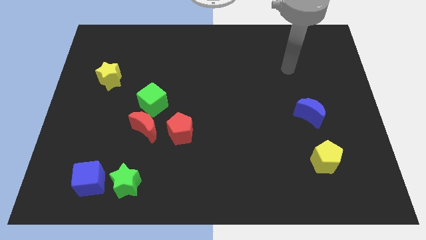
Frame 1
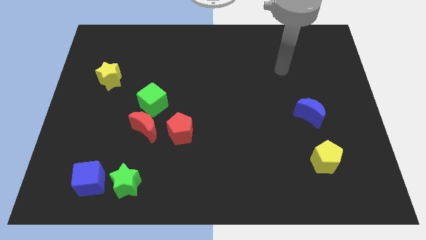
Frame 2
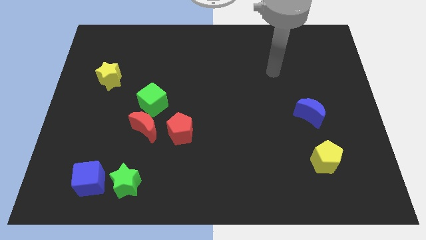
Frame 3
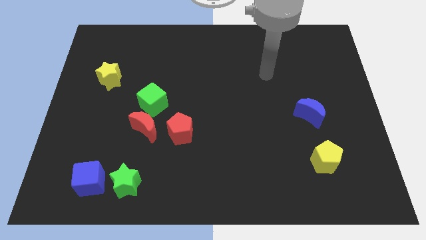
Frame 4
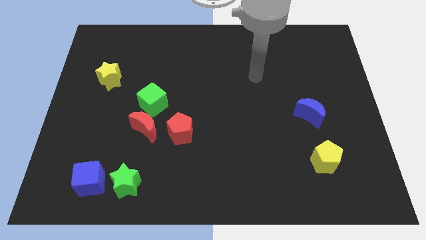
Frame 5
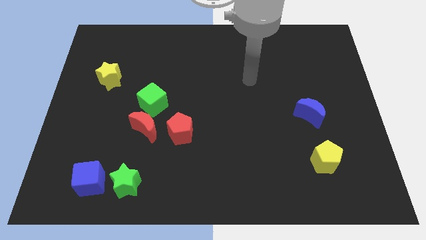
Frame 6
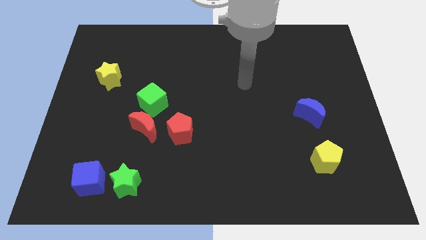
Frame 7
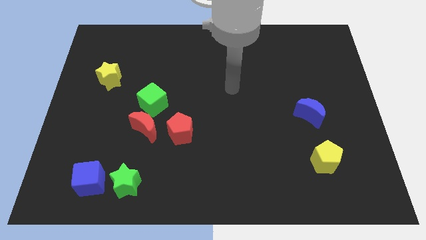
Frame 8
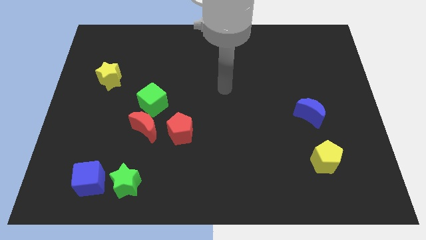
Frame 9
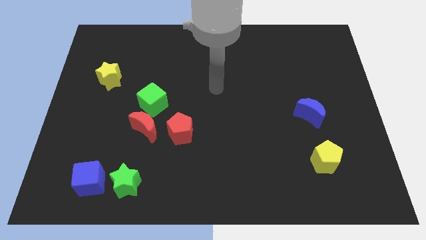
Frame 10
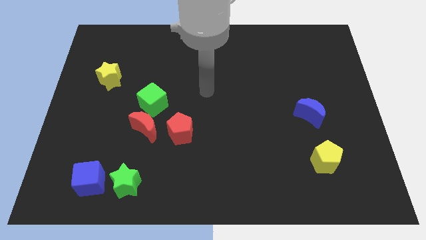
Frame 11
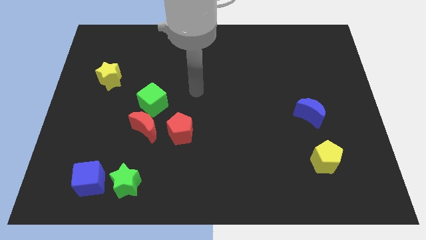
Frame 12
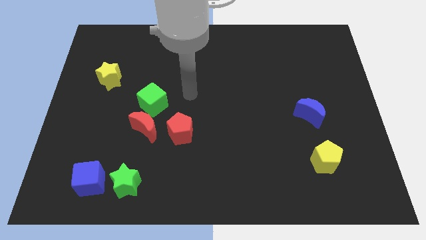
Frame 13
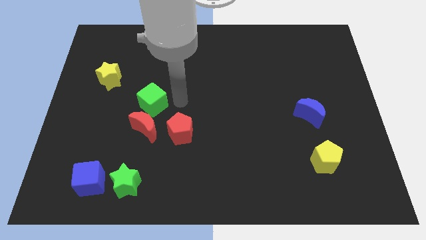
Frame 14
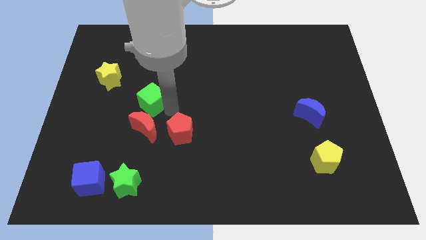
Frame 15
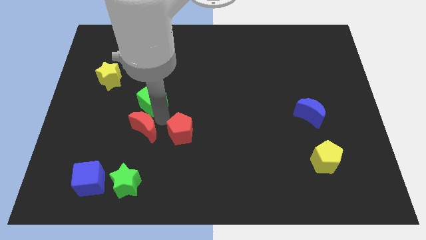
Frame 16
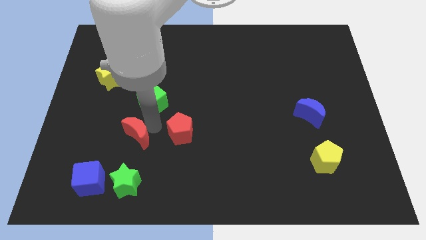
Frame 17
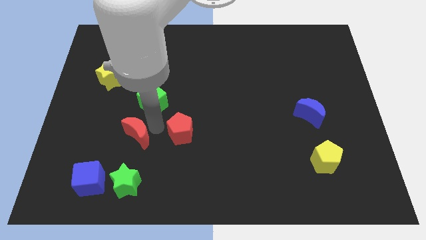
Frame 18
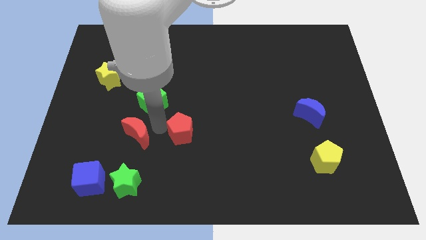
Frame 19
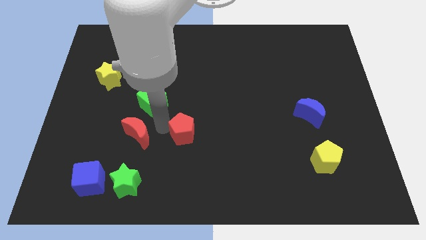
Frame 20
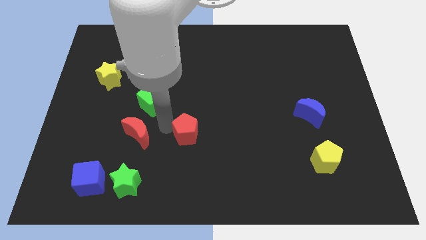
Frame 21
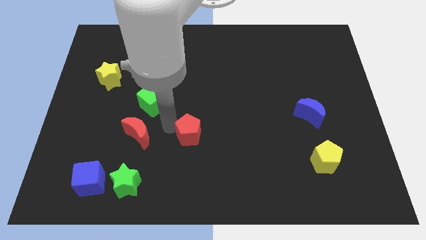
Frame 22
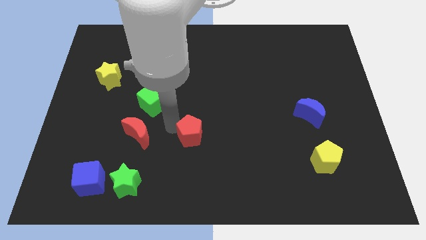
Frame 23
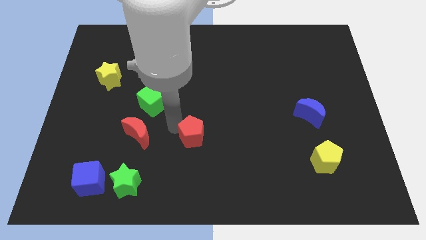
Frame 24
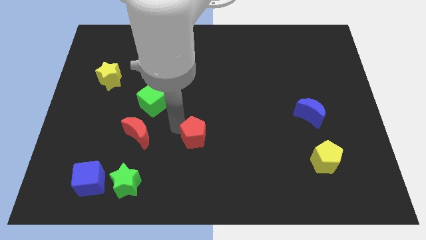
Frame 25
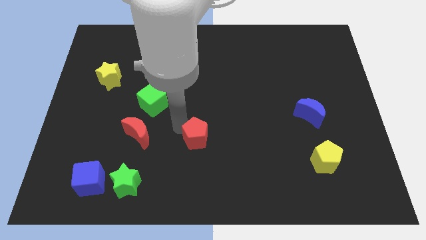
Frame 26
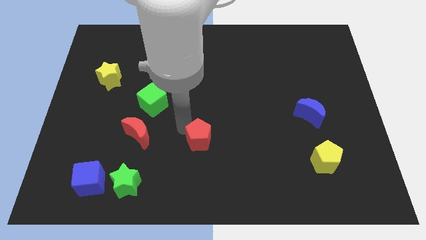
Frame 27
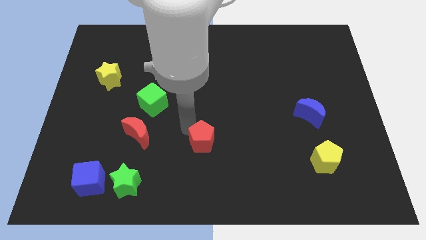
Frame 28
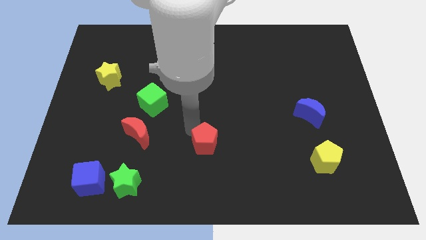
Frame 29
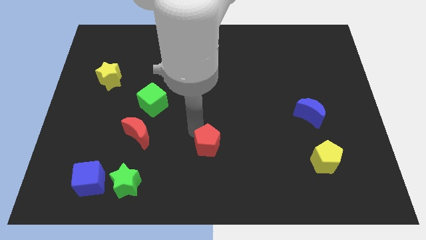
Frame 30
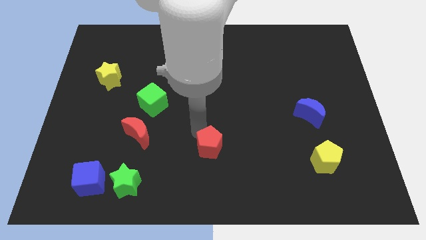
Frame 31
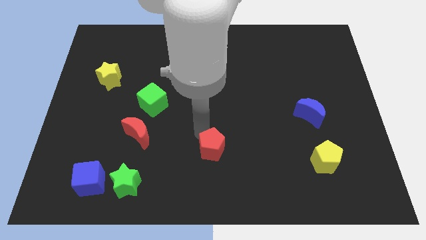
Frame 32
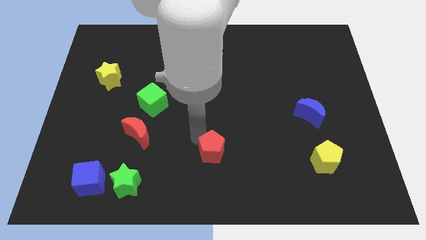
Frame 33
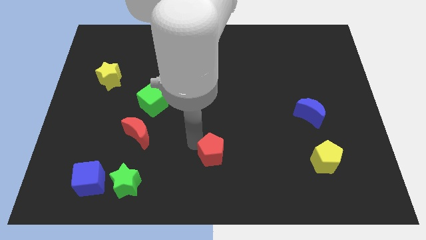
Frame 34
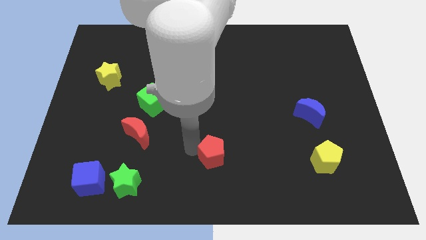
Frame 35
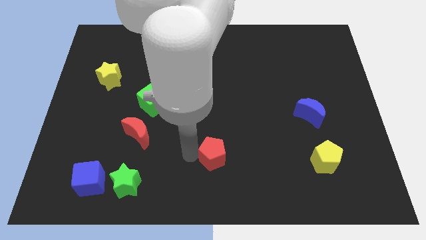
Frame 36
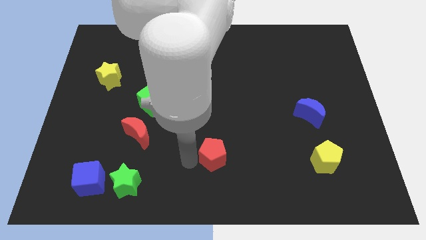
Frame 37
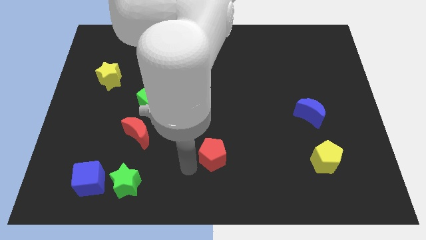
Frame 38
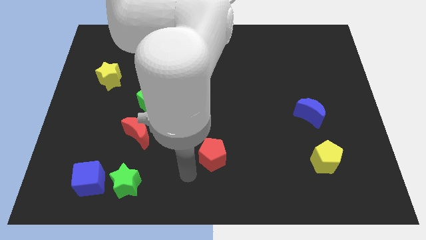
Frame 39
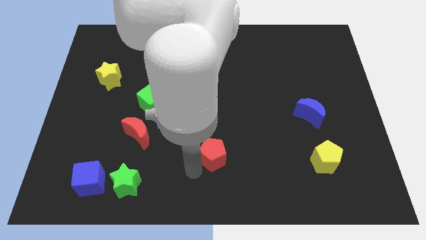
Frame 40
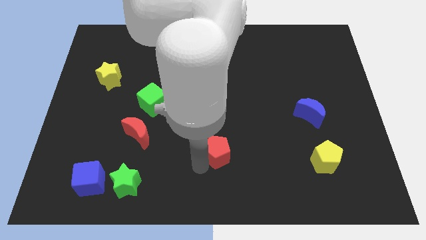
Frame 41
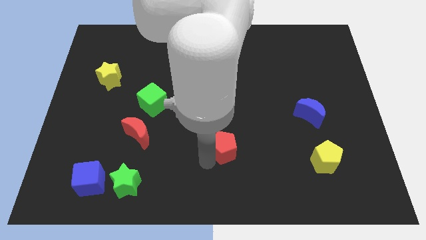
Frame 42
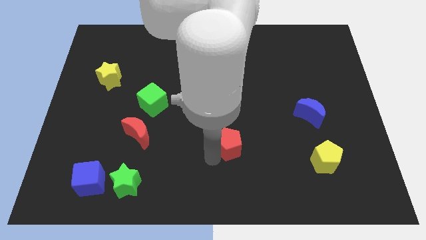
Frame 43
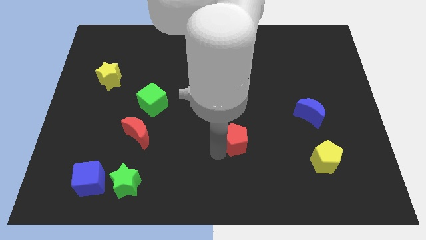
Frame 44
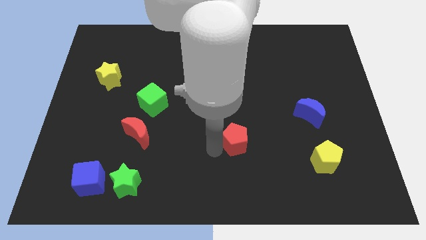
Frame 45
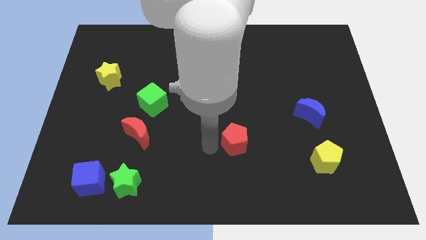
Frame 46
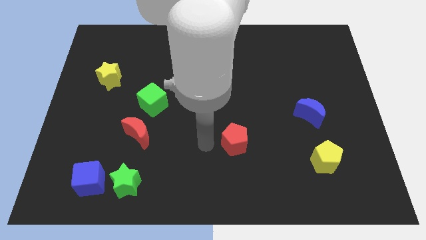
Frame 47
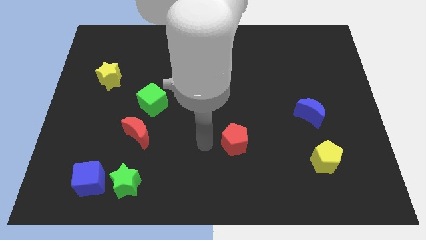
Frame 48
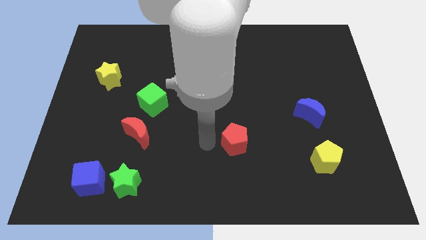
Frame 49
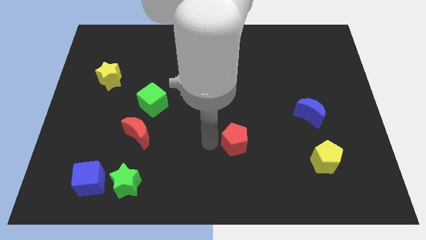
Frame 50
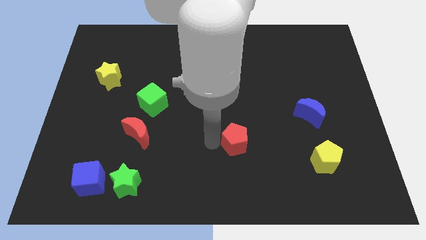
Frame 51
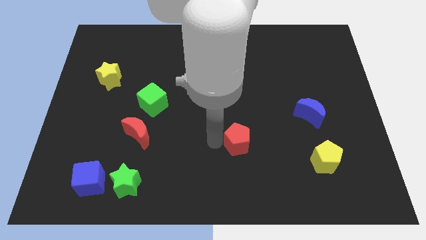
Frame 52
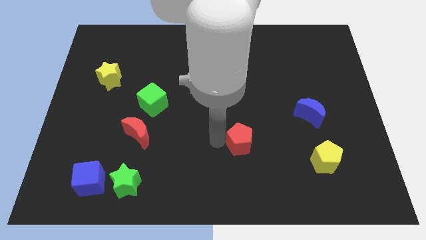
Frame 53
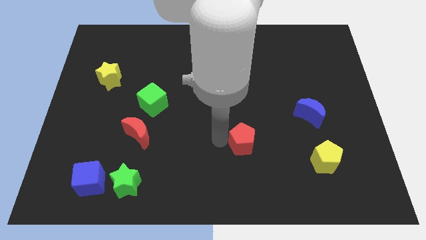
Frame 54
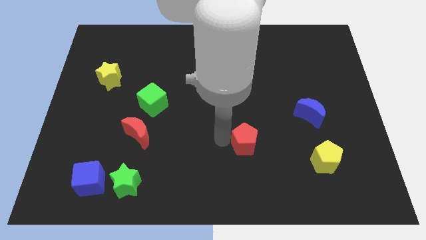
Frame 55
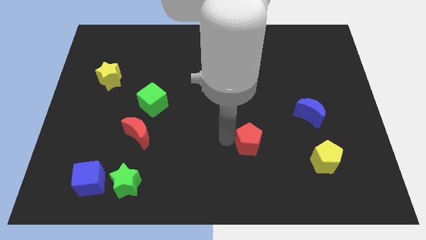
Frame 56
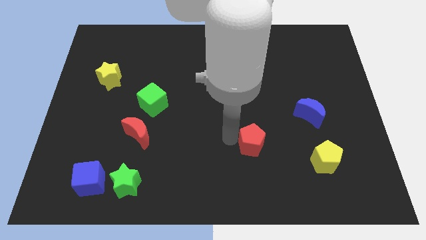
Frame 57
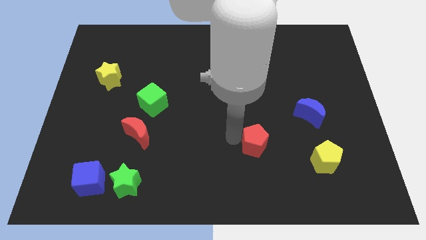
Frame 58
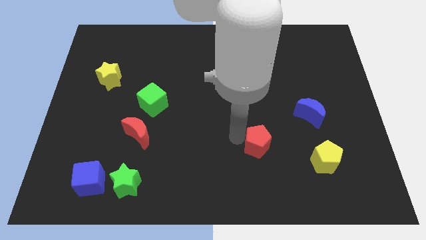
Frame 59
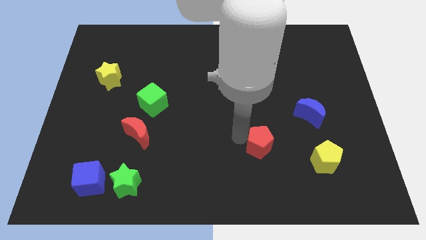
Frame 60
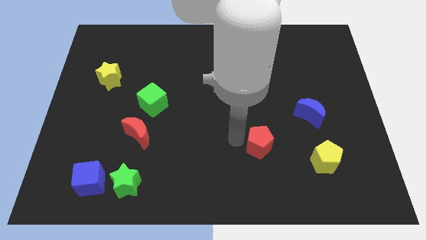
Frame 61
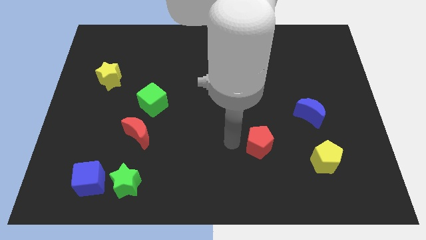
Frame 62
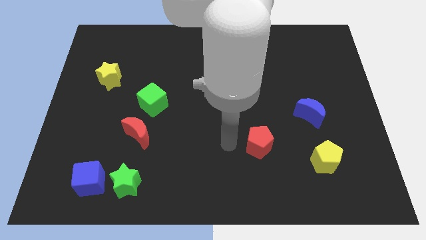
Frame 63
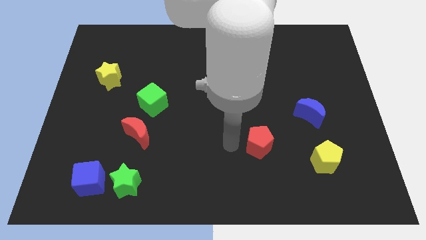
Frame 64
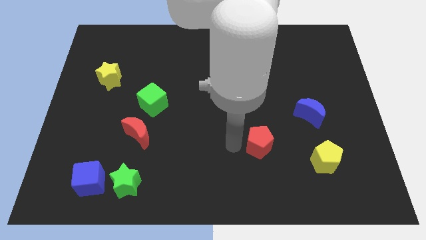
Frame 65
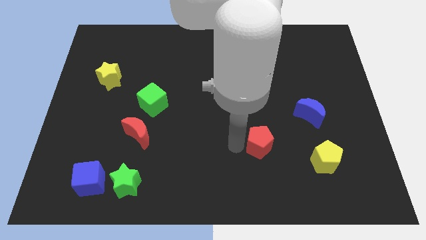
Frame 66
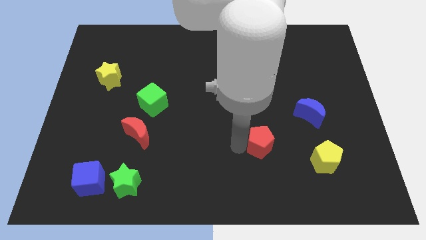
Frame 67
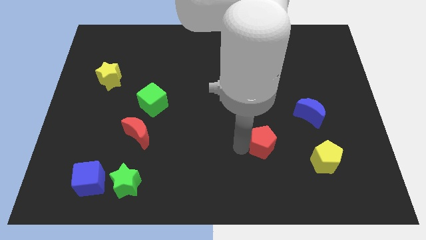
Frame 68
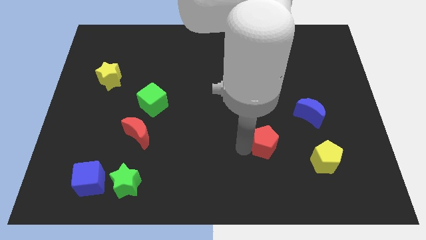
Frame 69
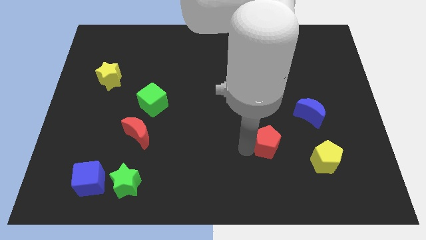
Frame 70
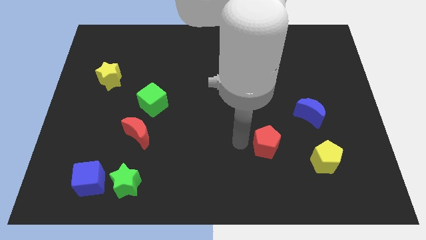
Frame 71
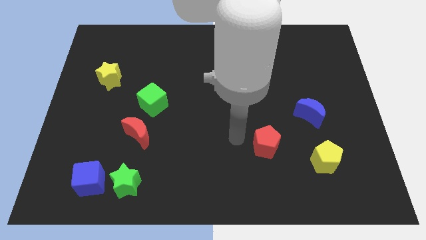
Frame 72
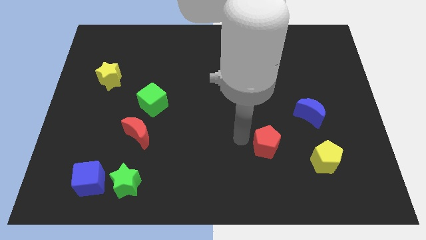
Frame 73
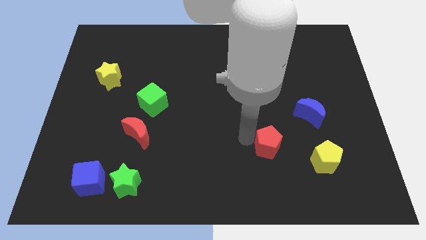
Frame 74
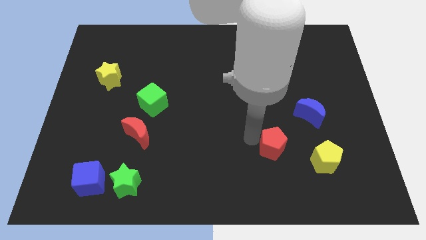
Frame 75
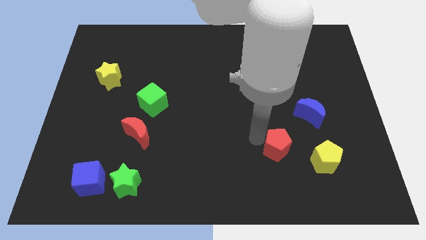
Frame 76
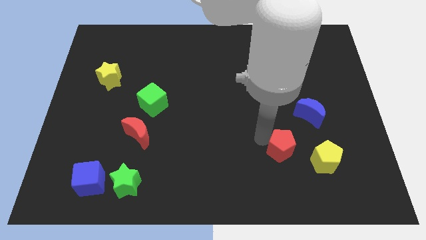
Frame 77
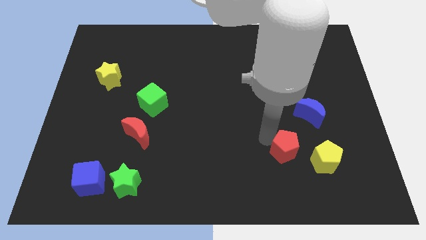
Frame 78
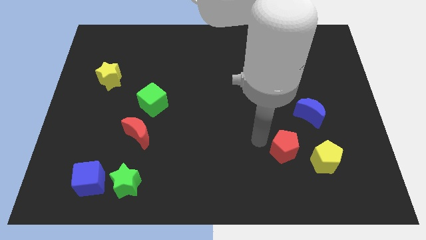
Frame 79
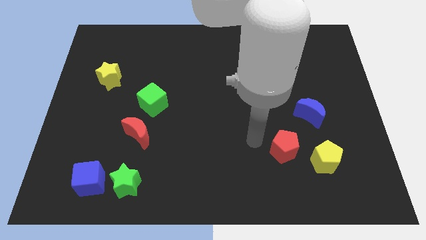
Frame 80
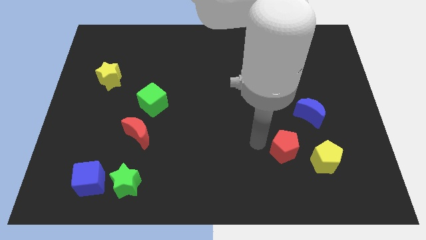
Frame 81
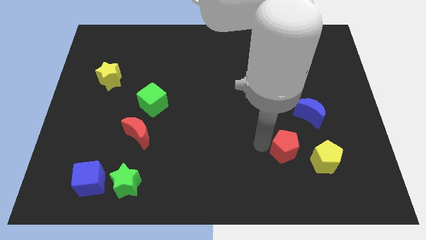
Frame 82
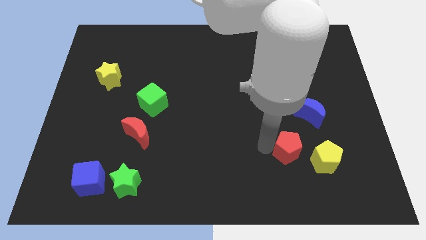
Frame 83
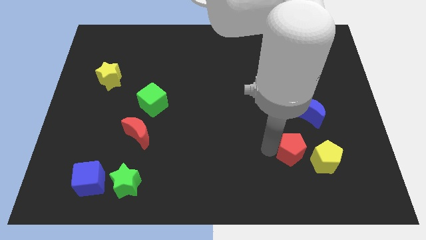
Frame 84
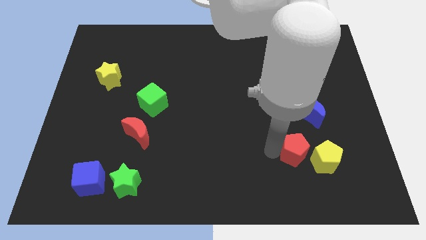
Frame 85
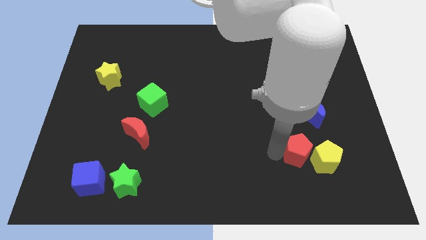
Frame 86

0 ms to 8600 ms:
move the red pentagon next to the yellow pentagon
